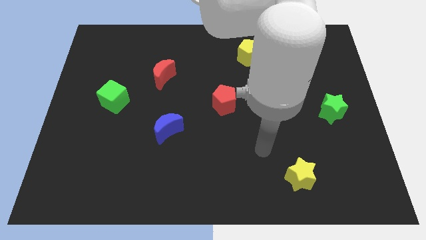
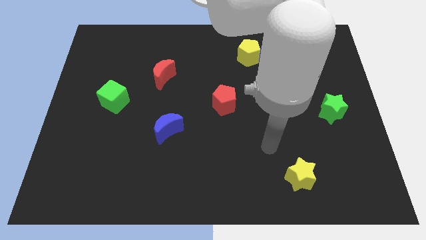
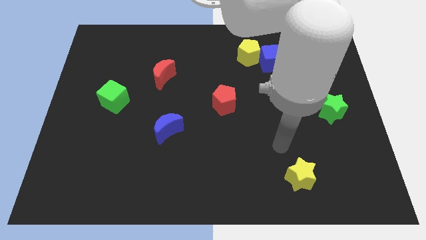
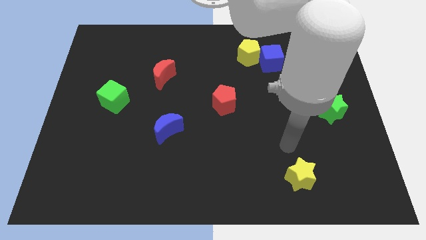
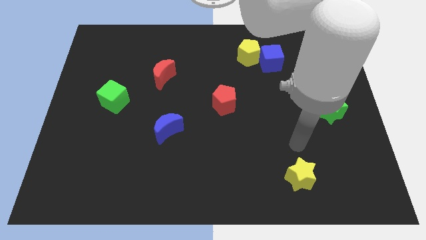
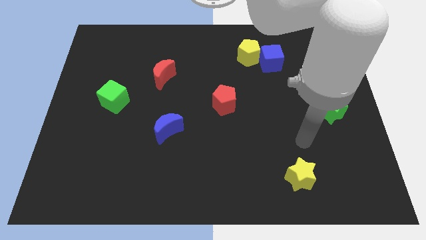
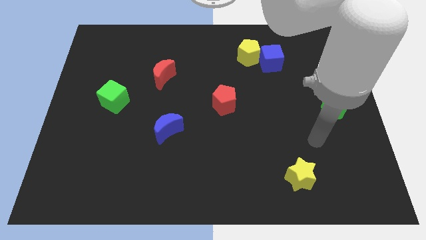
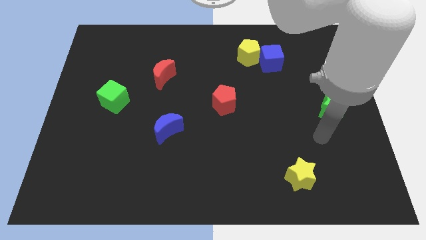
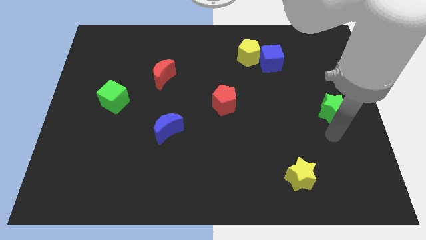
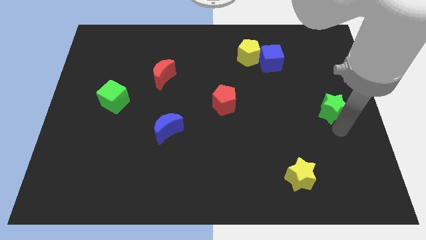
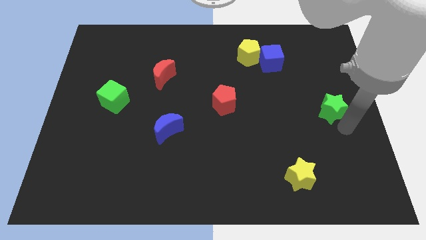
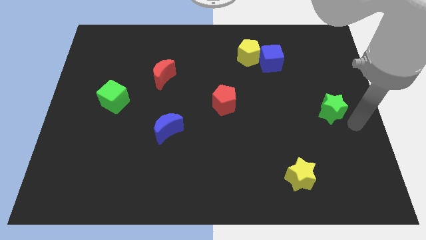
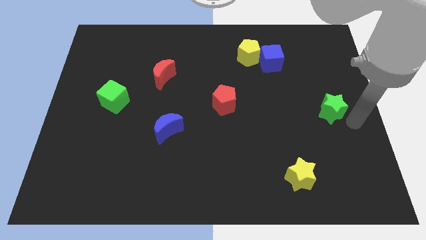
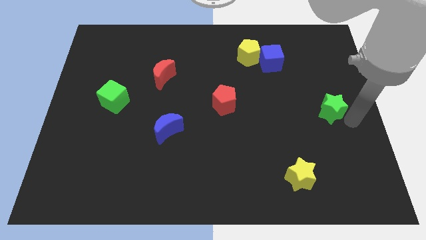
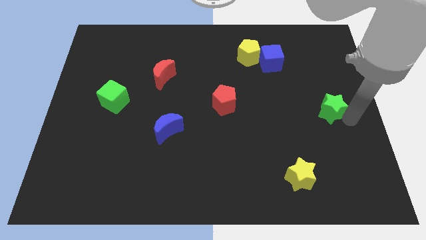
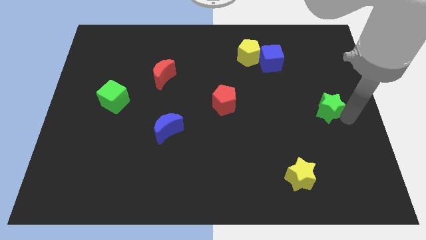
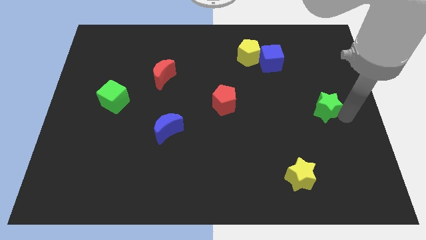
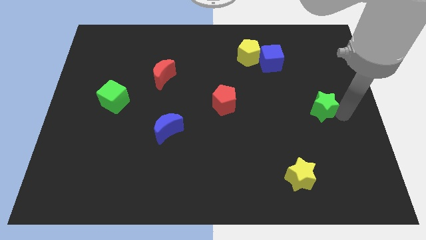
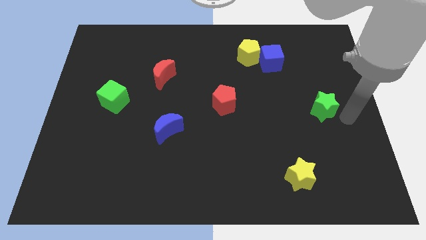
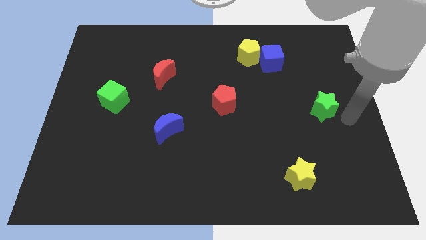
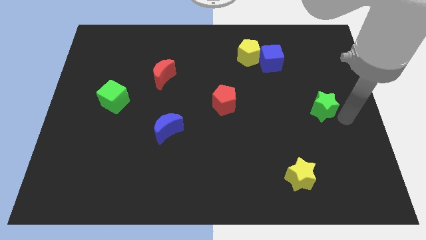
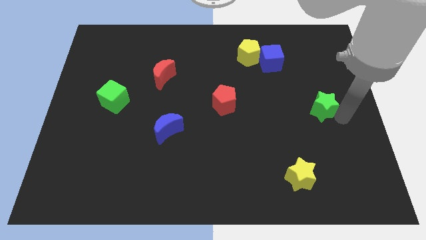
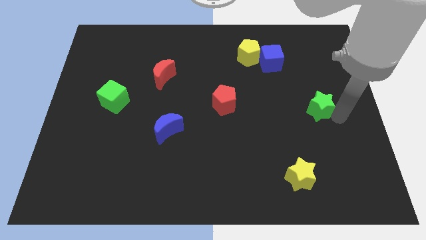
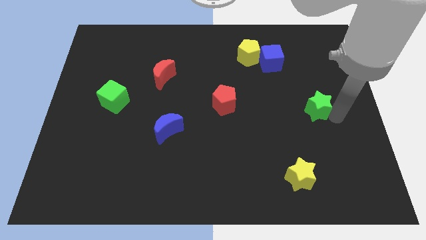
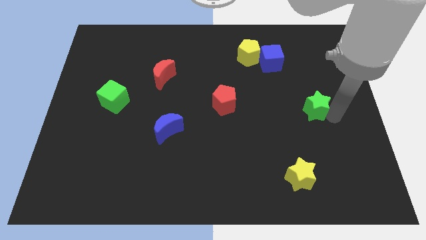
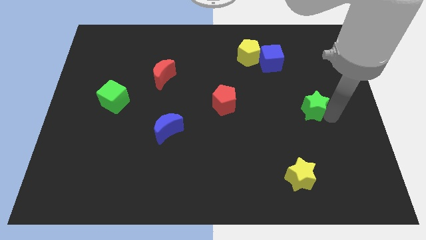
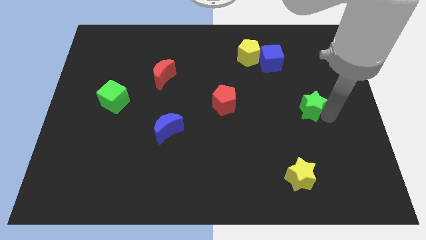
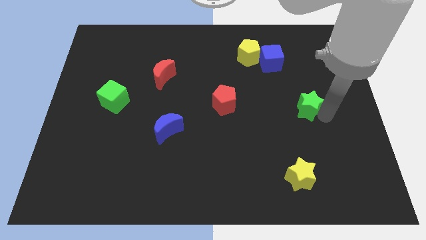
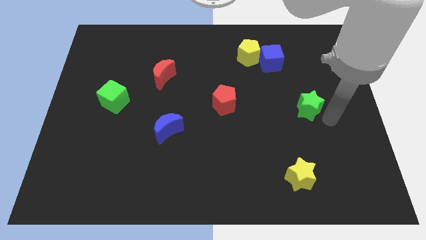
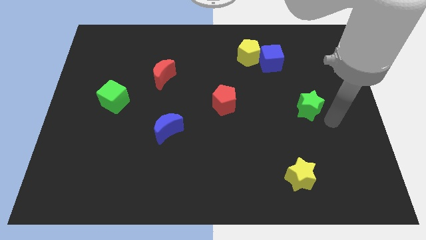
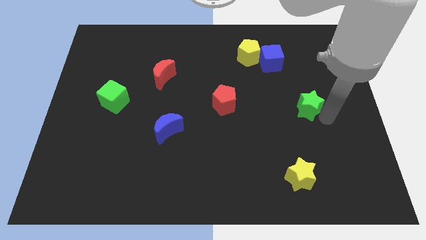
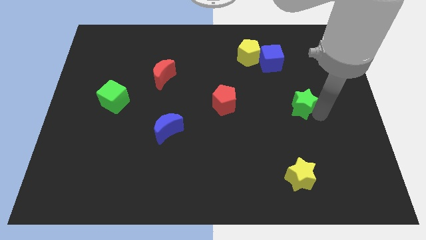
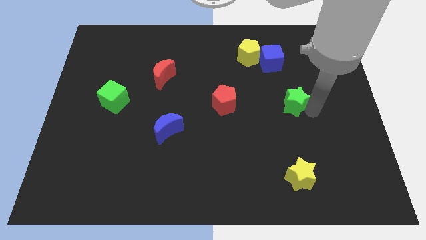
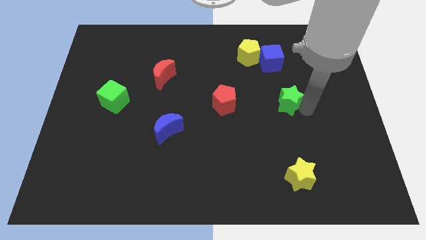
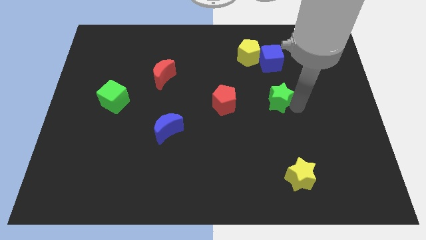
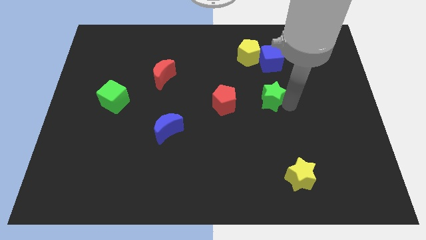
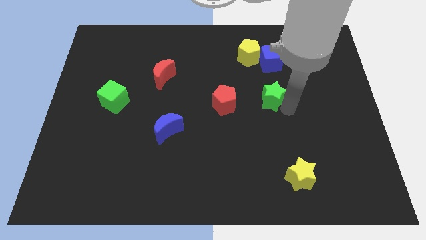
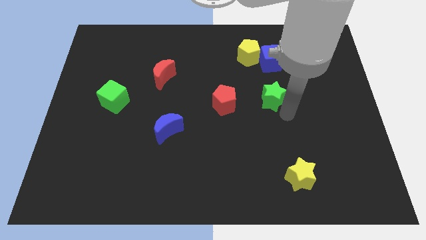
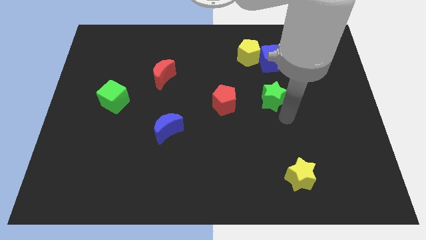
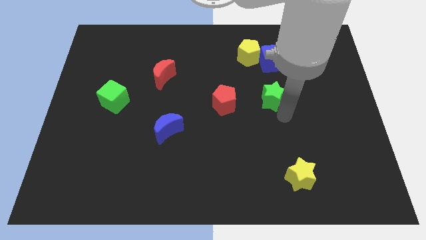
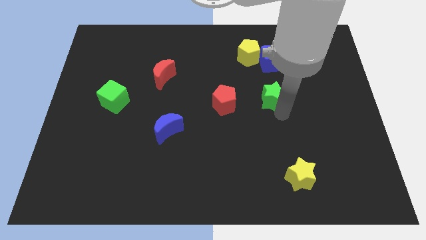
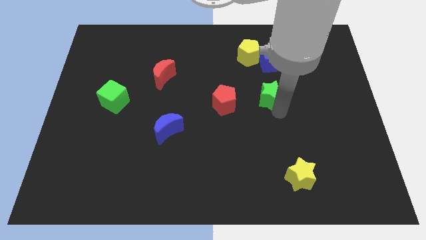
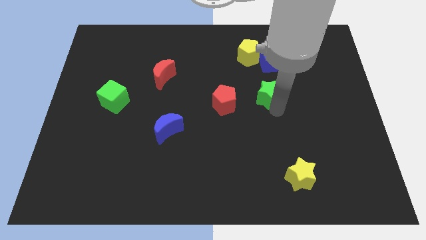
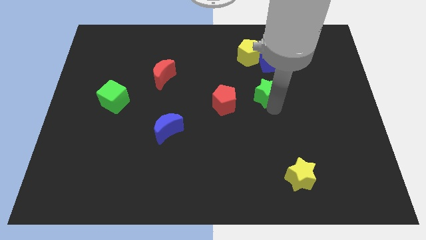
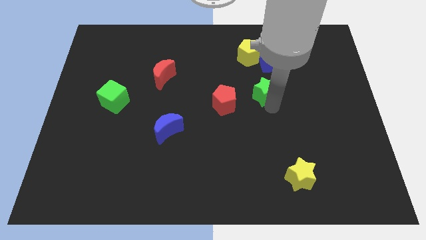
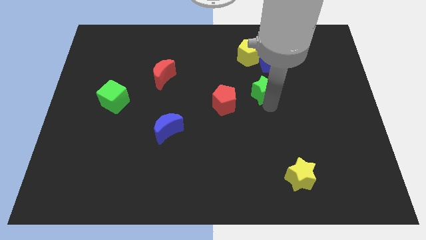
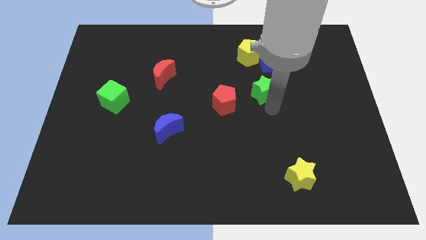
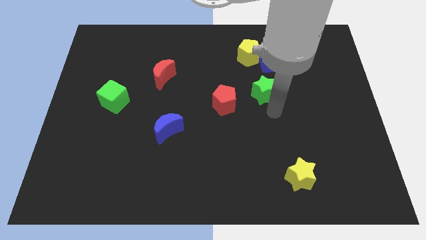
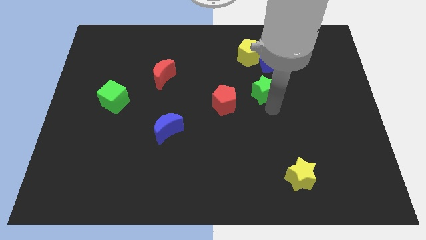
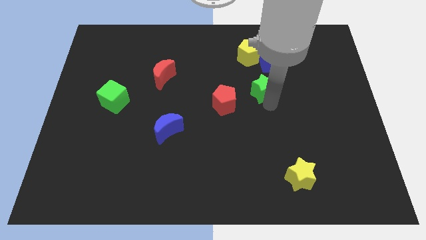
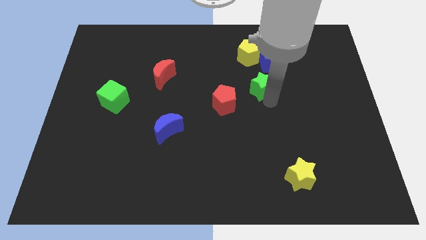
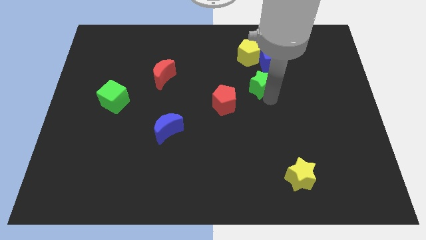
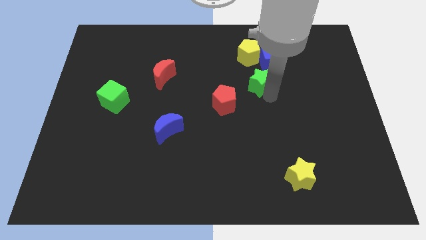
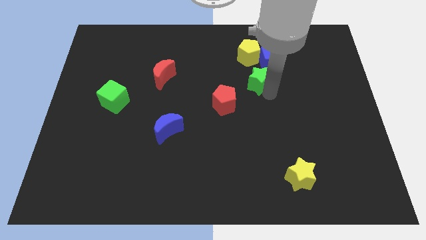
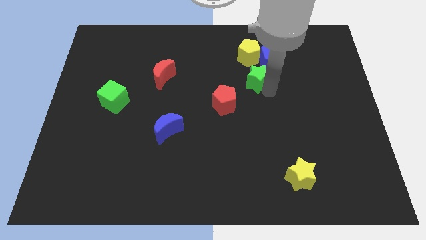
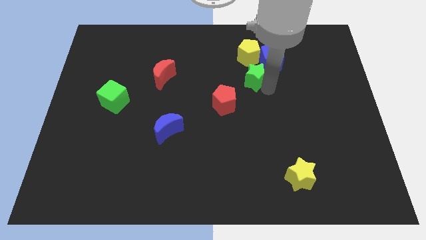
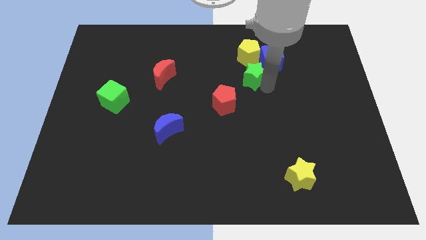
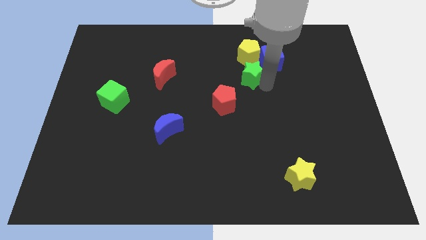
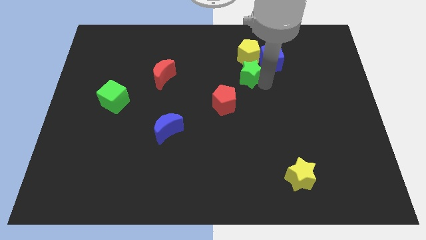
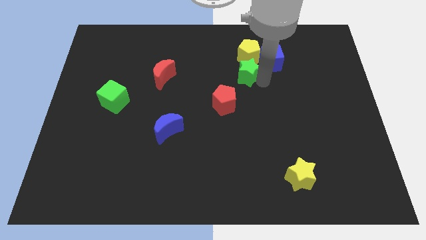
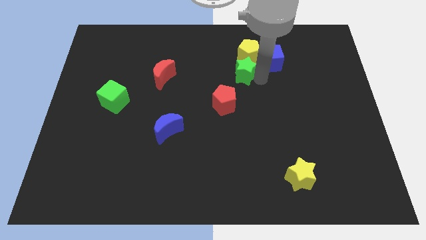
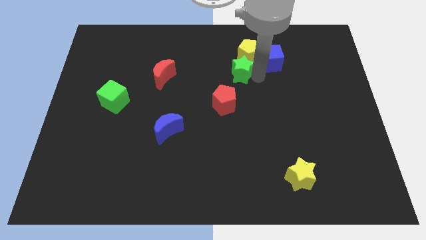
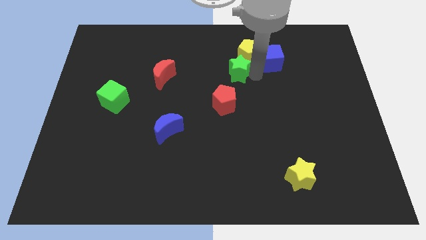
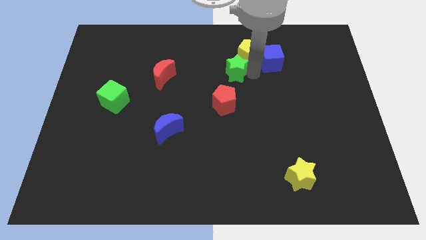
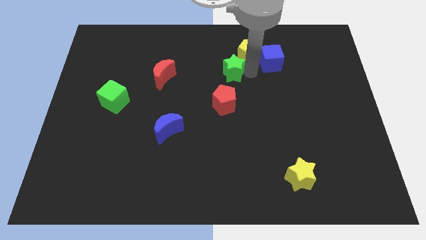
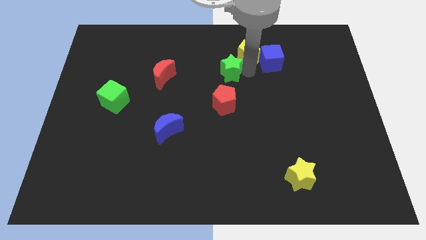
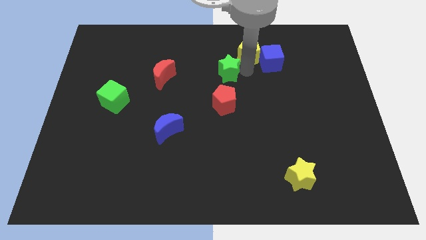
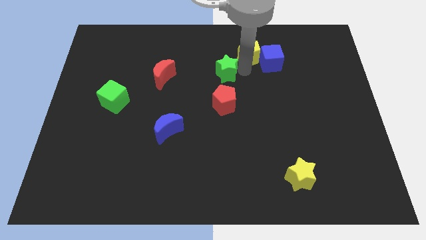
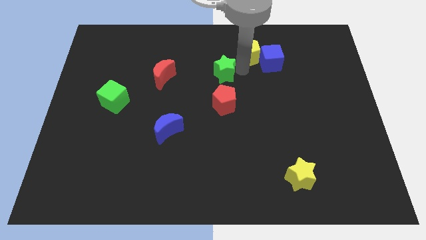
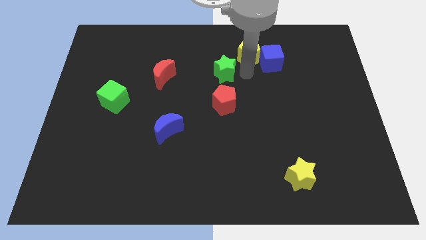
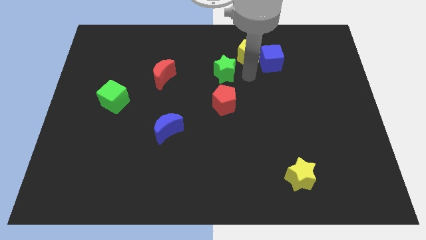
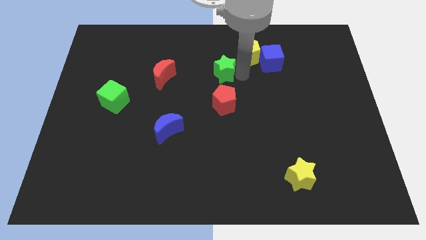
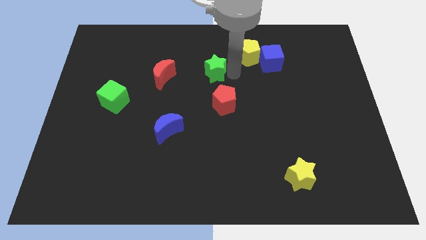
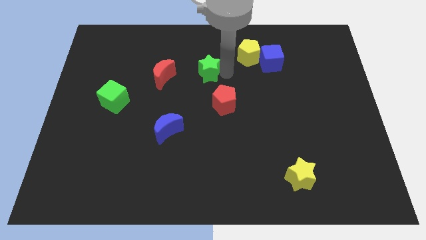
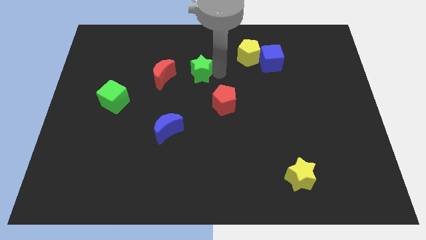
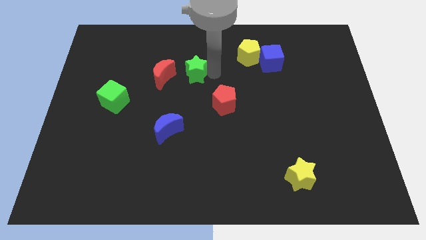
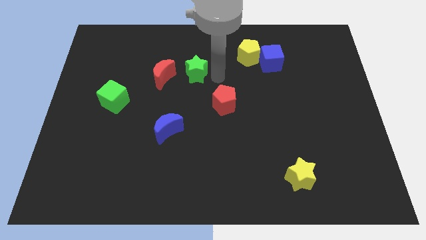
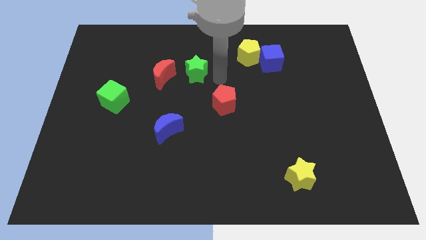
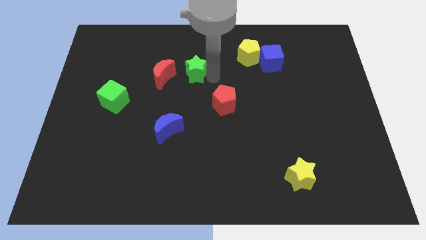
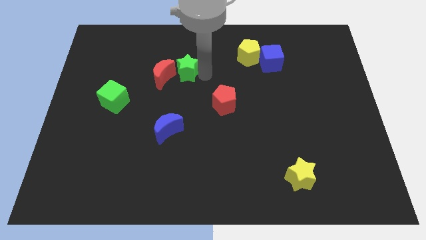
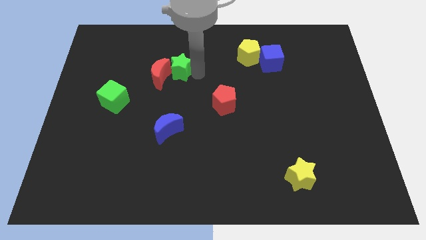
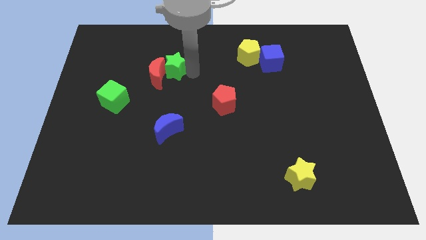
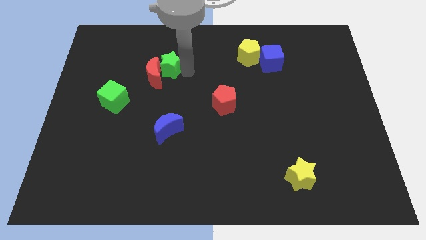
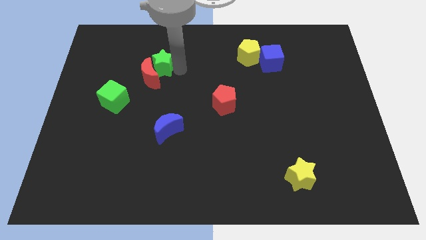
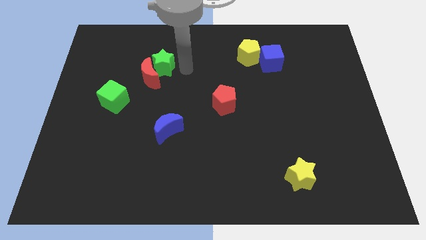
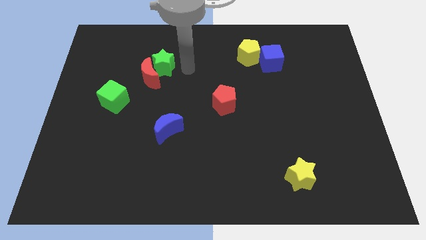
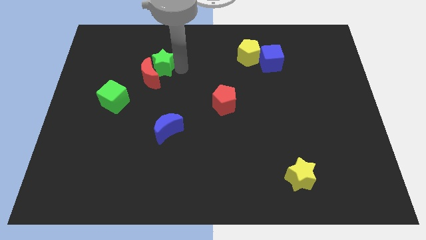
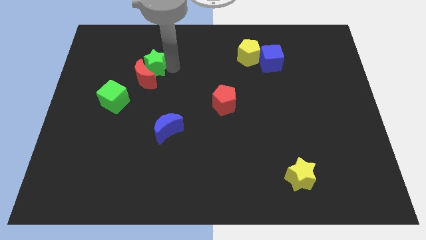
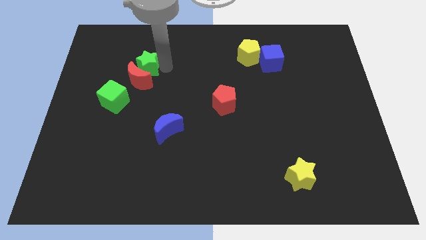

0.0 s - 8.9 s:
put the green star to the top left of the red moon
